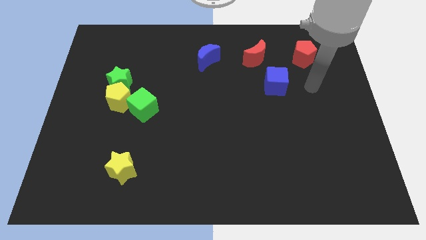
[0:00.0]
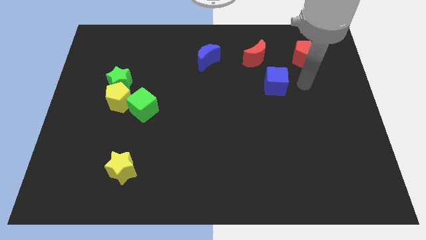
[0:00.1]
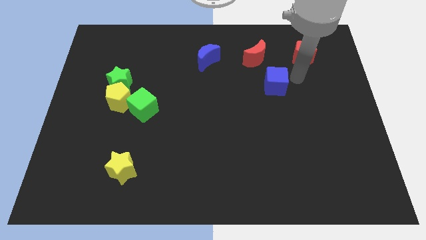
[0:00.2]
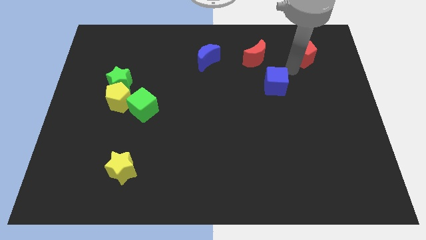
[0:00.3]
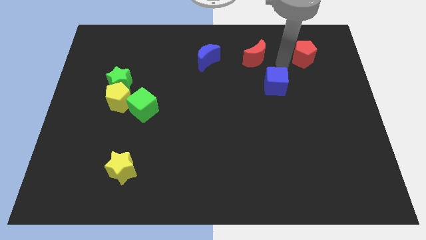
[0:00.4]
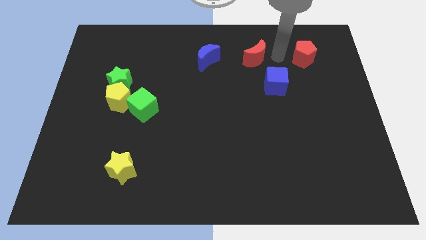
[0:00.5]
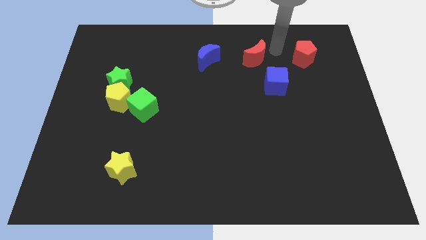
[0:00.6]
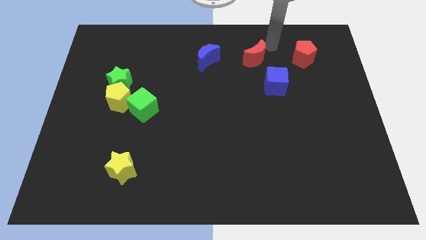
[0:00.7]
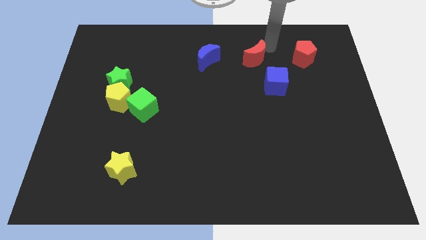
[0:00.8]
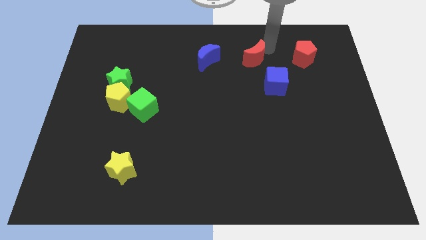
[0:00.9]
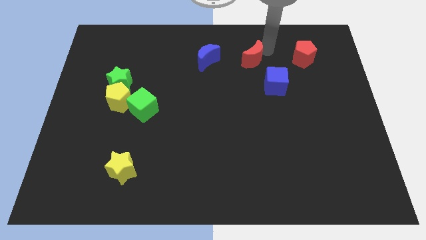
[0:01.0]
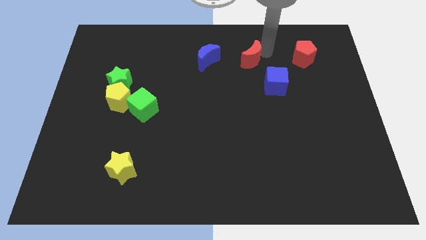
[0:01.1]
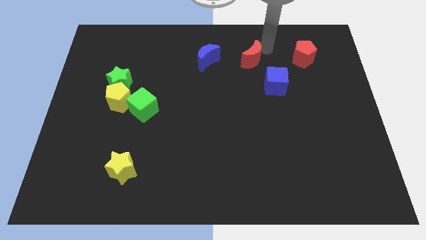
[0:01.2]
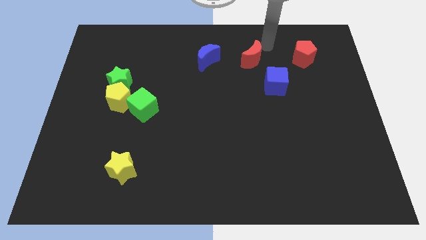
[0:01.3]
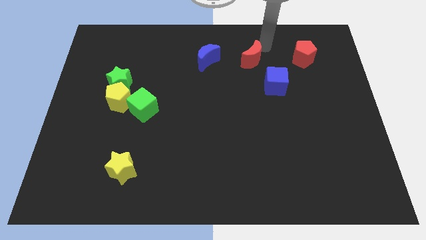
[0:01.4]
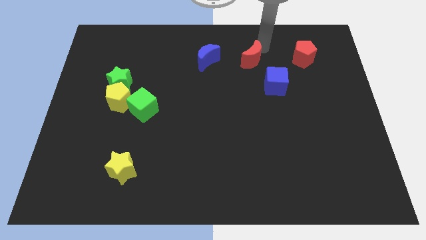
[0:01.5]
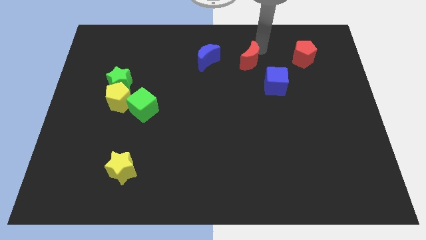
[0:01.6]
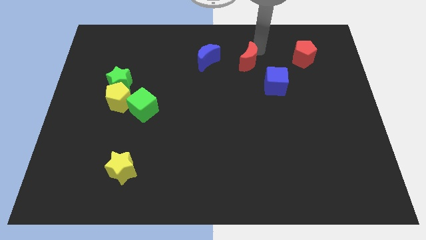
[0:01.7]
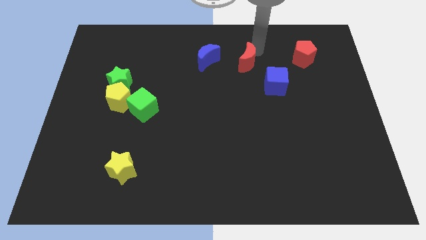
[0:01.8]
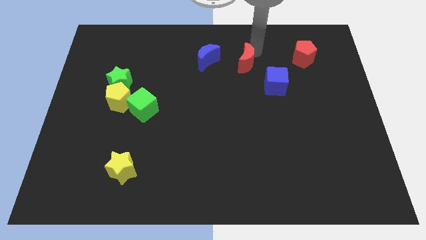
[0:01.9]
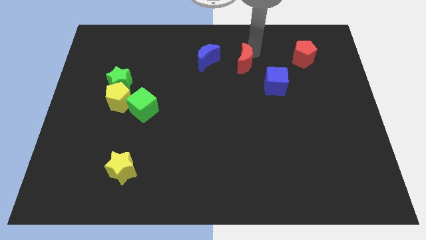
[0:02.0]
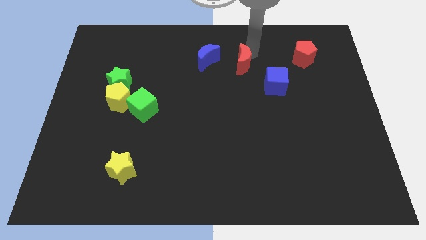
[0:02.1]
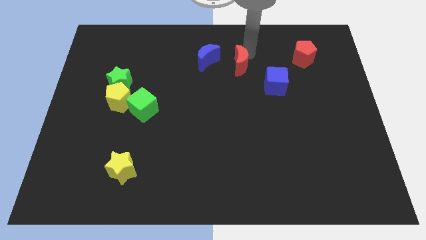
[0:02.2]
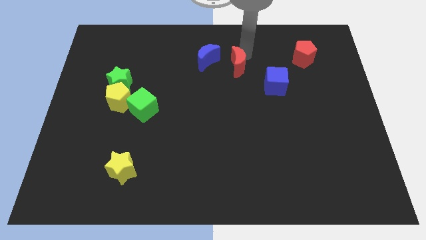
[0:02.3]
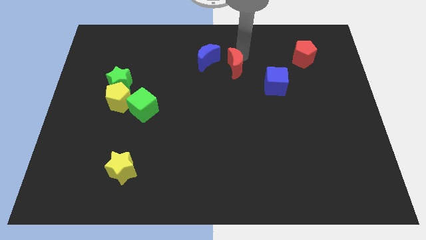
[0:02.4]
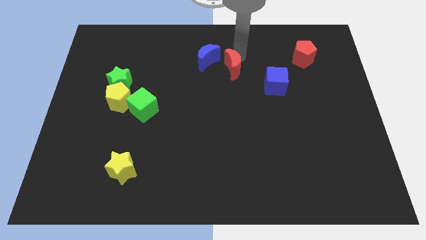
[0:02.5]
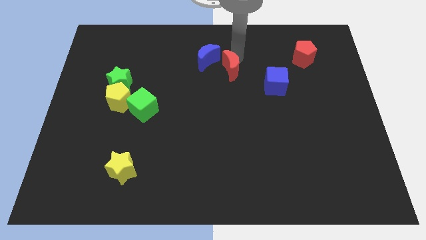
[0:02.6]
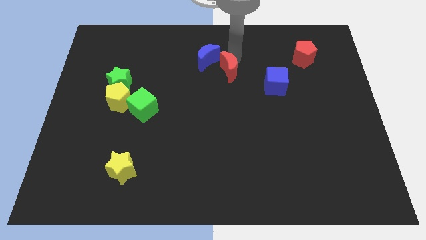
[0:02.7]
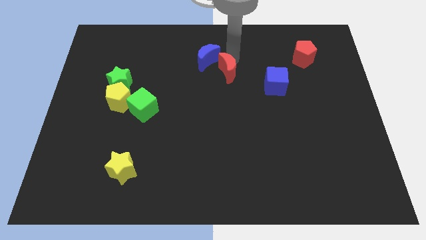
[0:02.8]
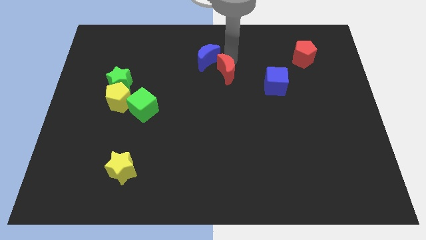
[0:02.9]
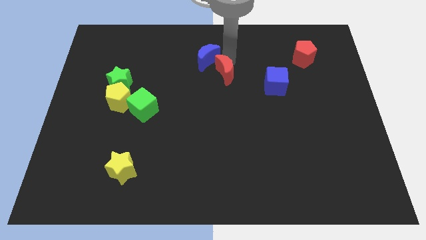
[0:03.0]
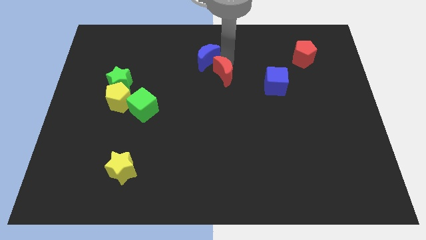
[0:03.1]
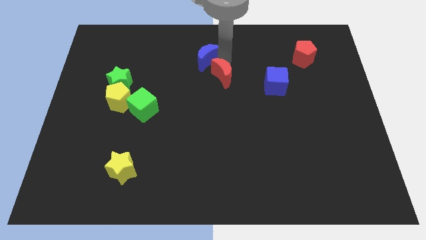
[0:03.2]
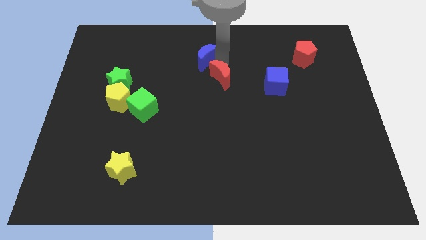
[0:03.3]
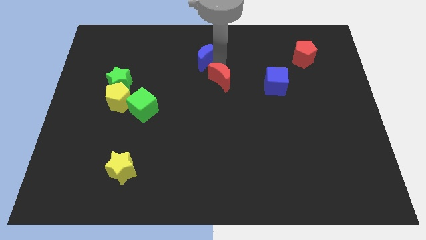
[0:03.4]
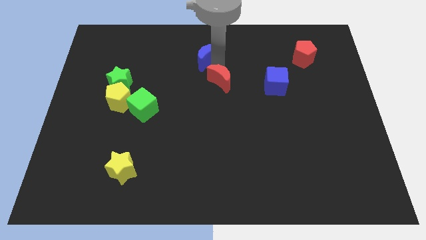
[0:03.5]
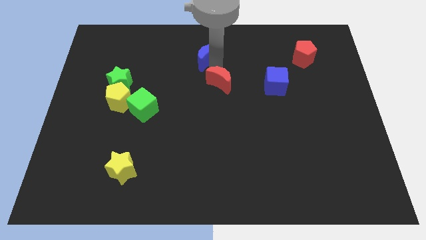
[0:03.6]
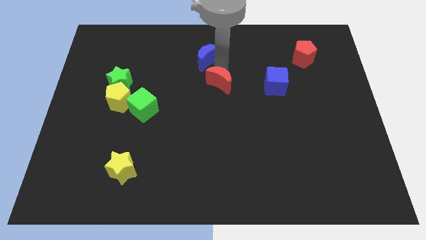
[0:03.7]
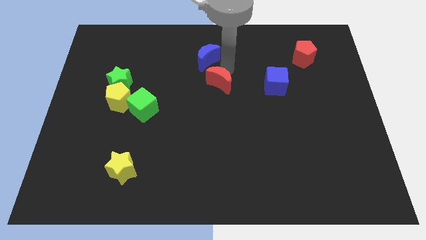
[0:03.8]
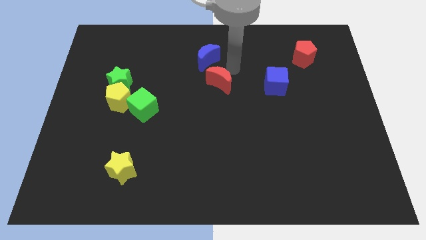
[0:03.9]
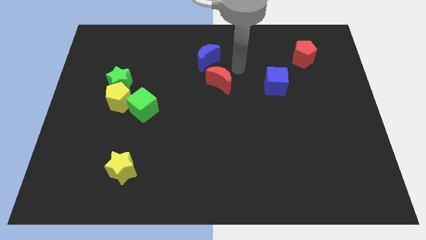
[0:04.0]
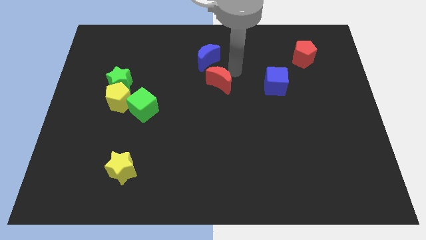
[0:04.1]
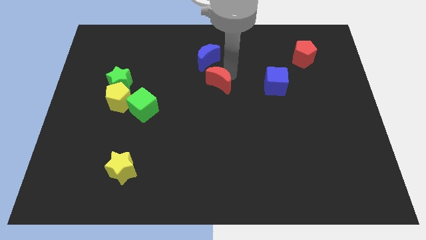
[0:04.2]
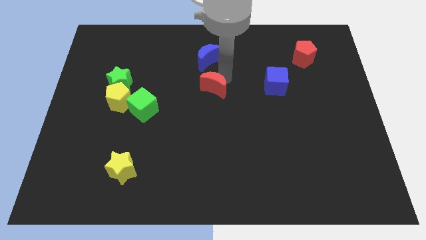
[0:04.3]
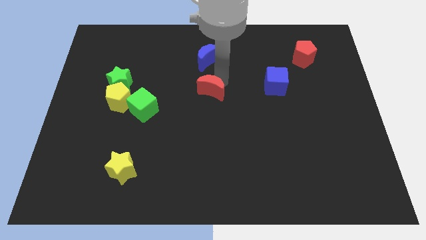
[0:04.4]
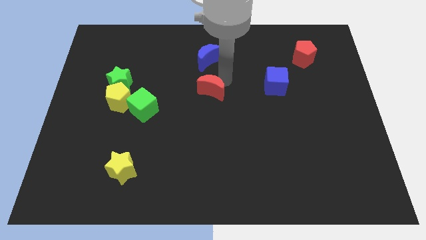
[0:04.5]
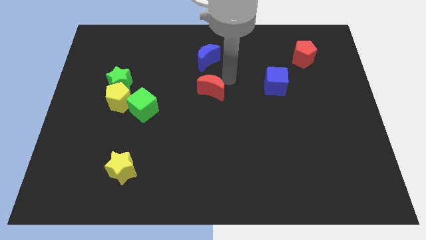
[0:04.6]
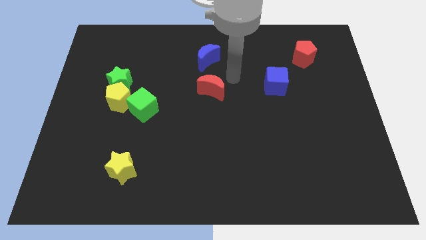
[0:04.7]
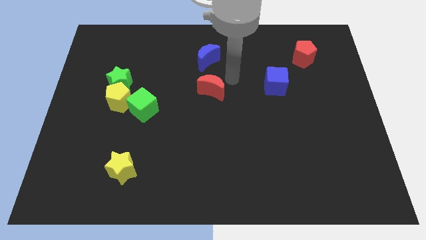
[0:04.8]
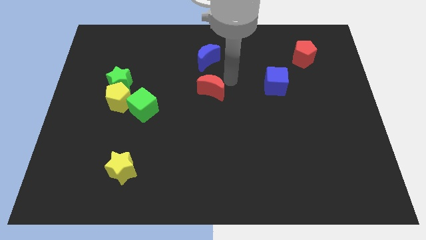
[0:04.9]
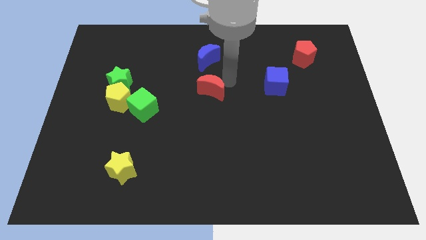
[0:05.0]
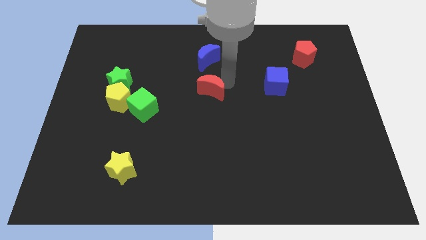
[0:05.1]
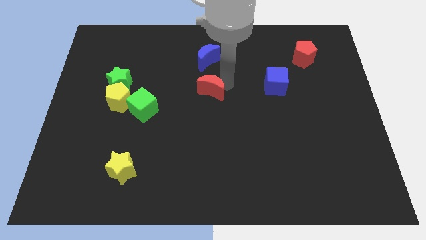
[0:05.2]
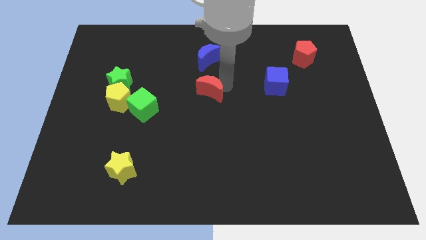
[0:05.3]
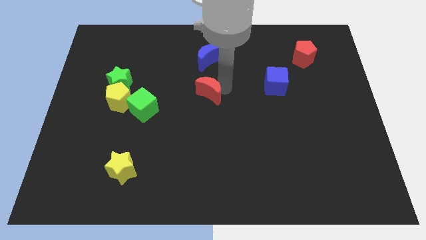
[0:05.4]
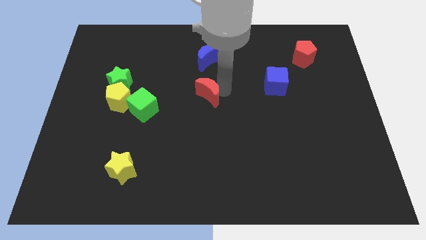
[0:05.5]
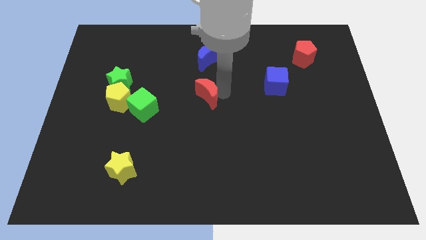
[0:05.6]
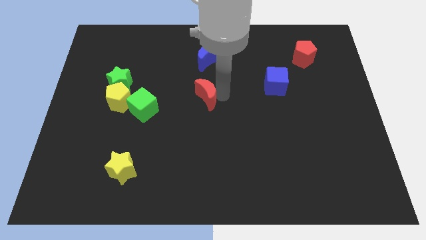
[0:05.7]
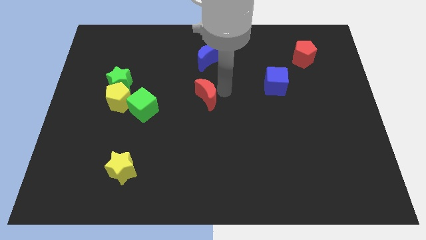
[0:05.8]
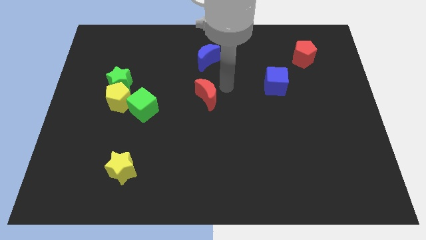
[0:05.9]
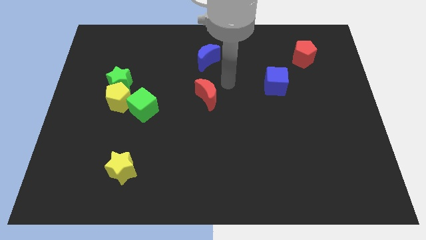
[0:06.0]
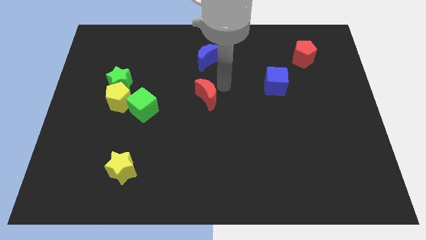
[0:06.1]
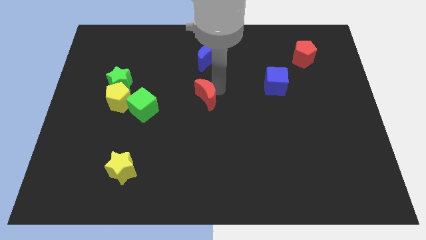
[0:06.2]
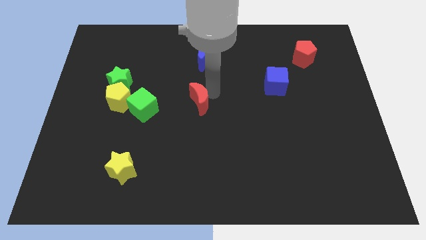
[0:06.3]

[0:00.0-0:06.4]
push the red moon down and left diagonally

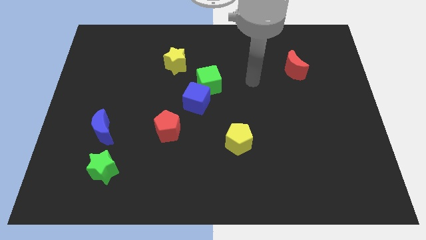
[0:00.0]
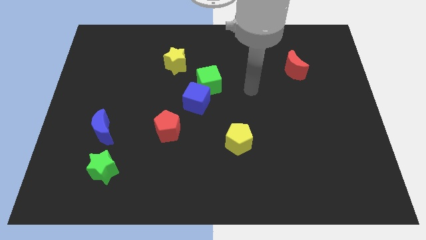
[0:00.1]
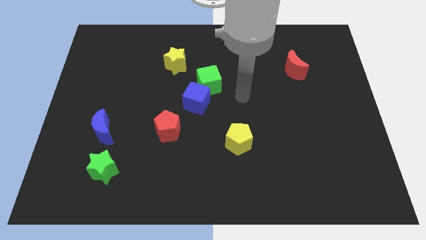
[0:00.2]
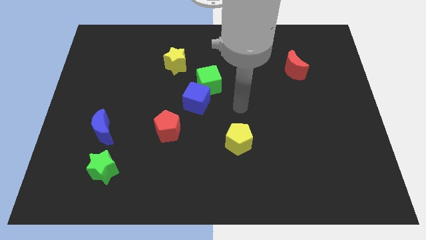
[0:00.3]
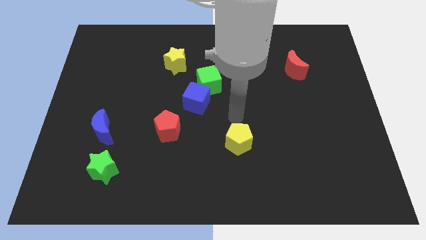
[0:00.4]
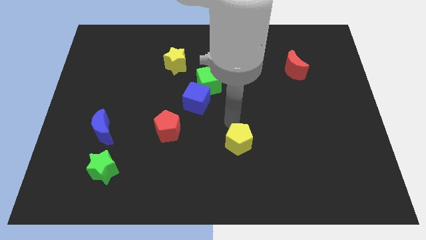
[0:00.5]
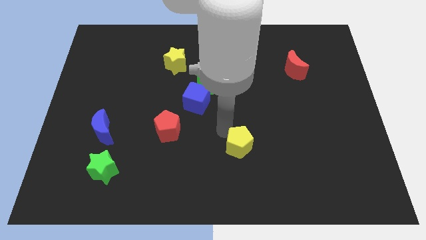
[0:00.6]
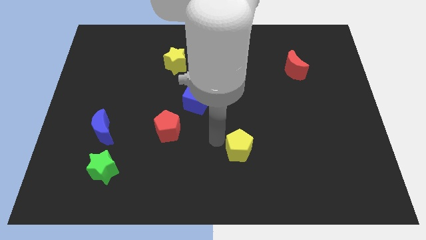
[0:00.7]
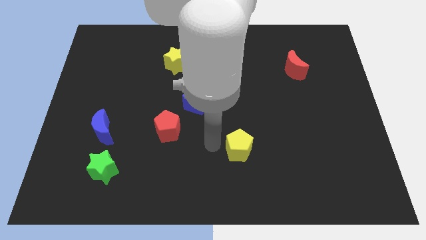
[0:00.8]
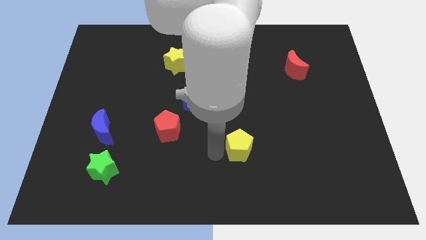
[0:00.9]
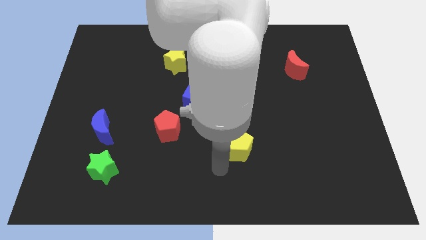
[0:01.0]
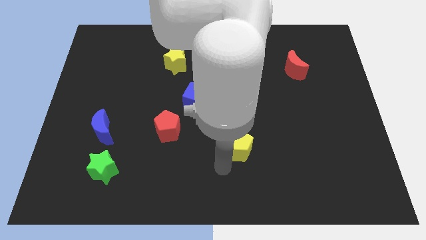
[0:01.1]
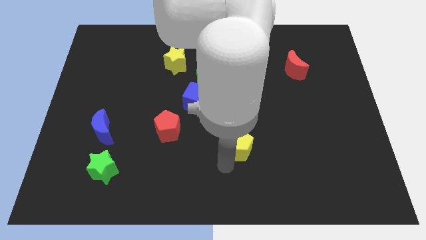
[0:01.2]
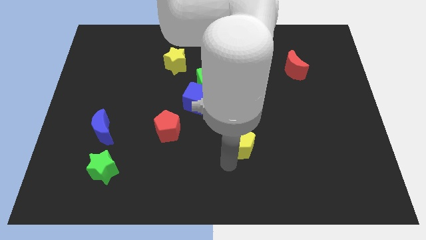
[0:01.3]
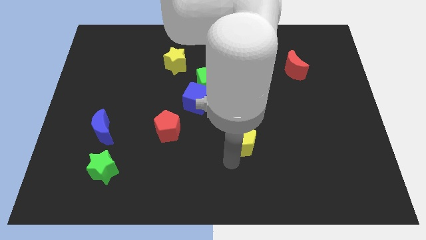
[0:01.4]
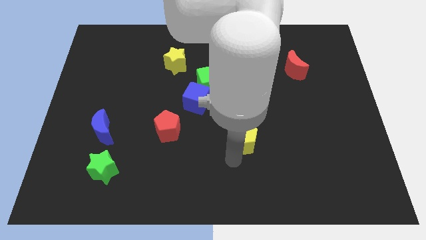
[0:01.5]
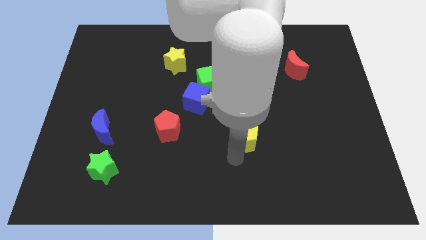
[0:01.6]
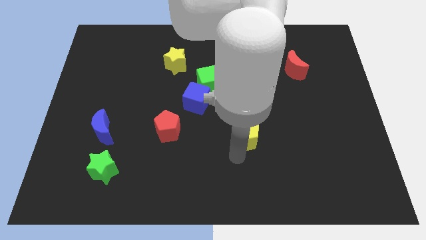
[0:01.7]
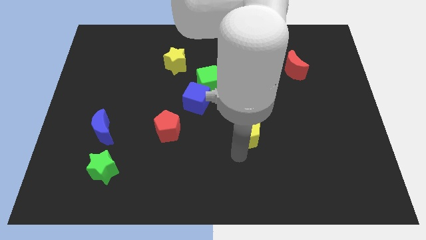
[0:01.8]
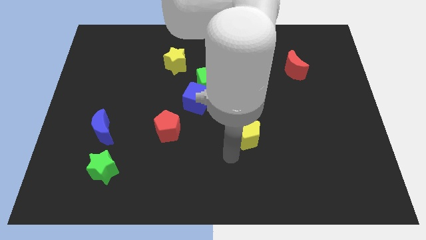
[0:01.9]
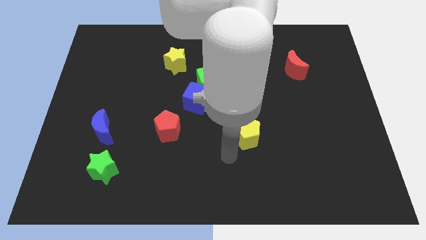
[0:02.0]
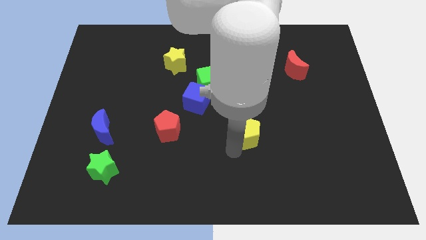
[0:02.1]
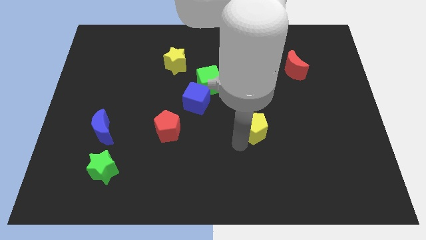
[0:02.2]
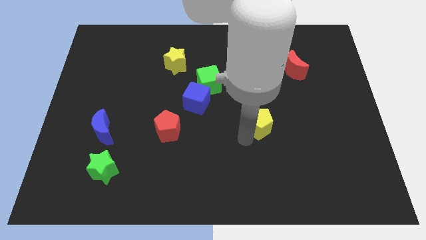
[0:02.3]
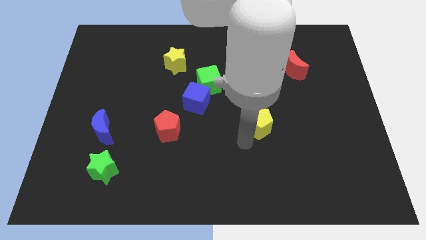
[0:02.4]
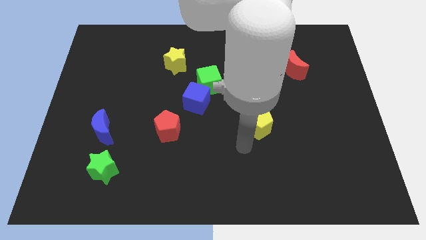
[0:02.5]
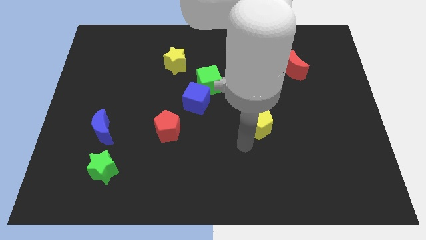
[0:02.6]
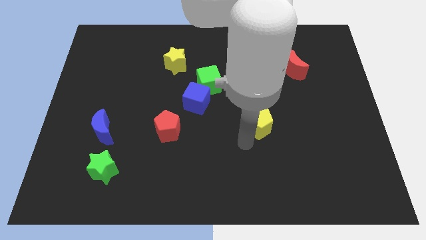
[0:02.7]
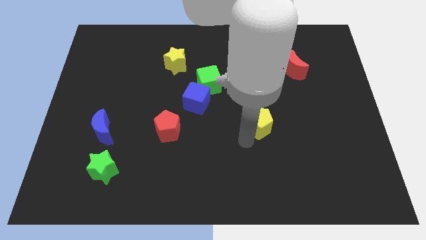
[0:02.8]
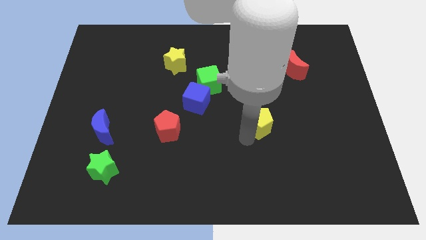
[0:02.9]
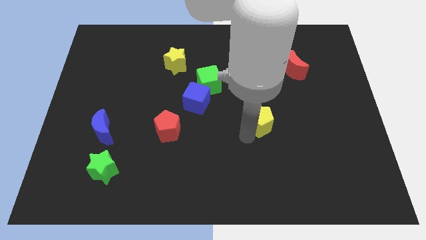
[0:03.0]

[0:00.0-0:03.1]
slightly slide the yellow pentagon diagonally upwards and to the right
